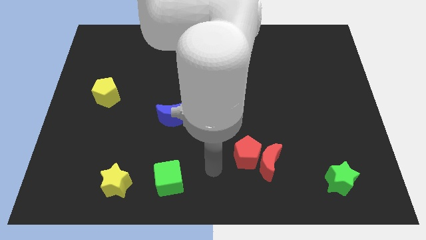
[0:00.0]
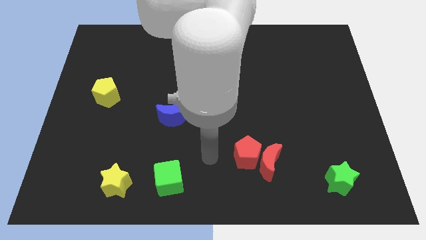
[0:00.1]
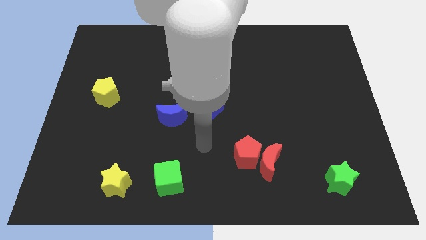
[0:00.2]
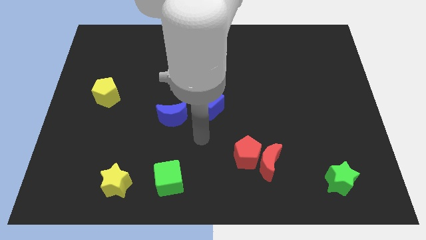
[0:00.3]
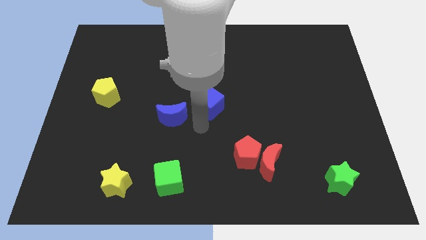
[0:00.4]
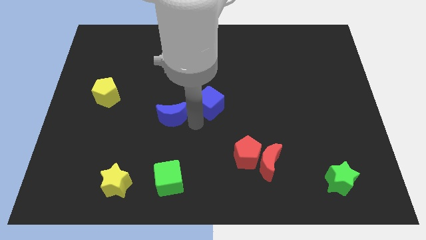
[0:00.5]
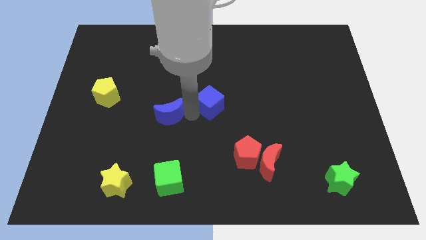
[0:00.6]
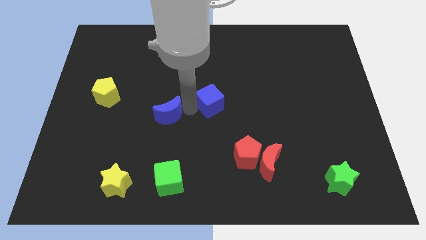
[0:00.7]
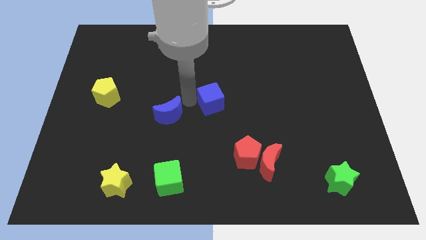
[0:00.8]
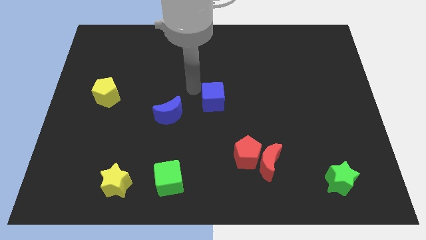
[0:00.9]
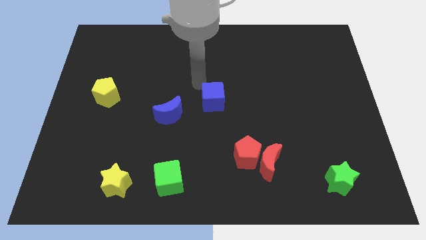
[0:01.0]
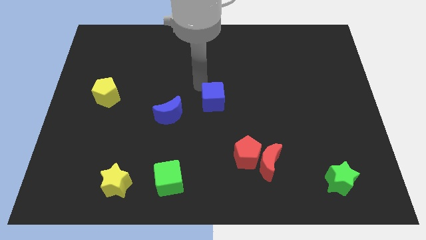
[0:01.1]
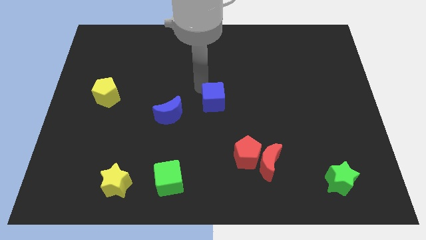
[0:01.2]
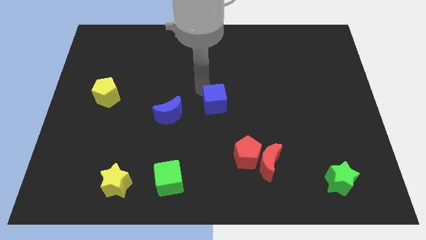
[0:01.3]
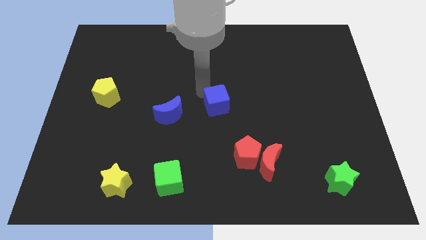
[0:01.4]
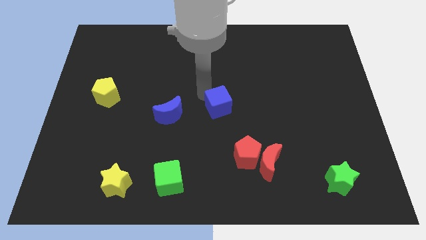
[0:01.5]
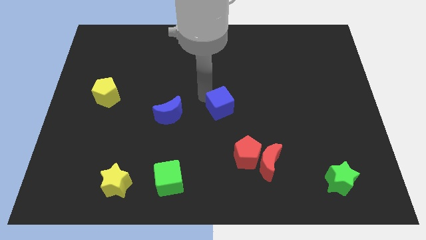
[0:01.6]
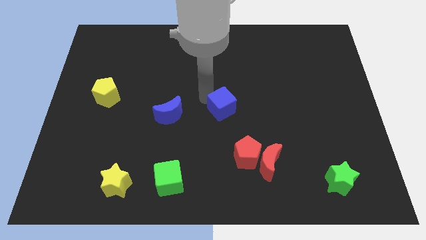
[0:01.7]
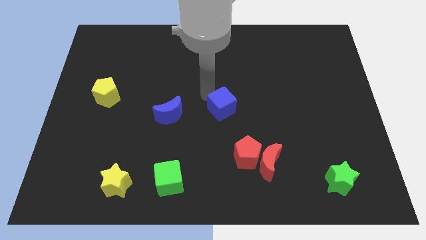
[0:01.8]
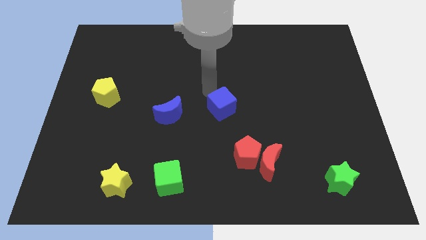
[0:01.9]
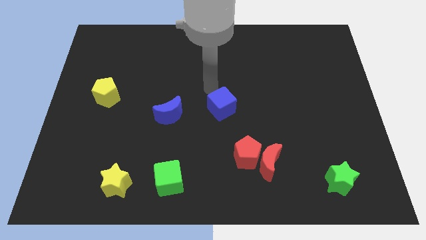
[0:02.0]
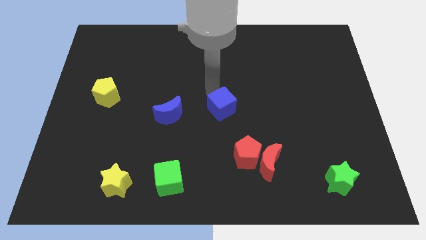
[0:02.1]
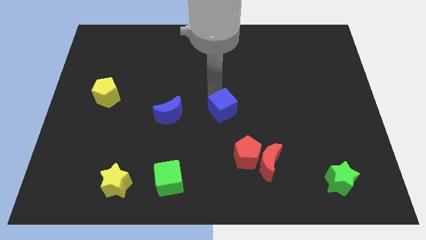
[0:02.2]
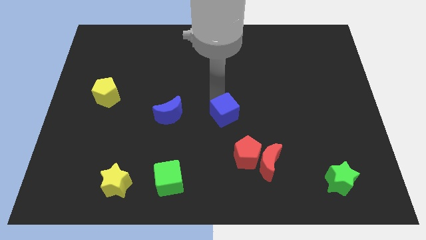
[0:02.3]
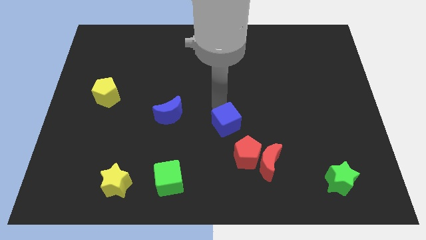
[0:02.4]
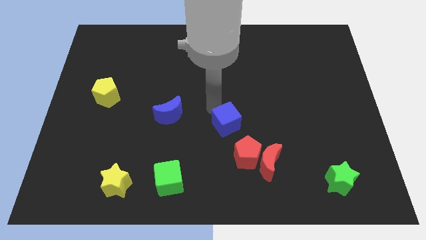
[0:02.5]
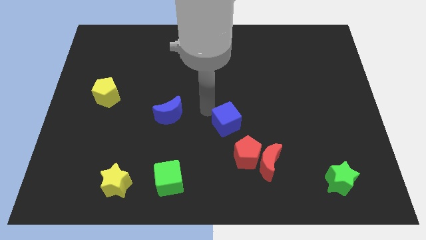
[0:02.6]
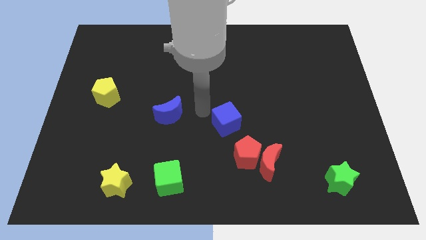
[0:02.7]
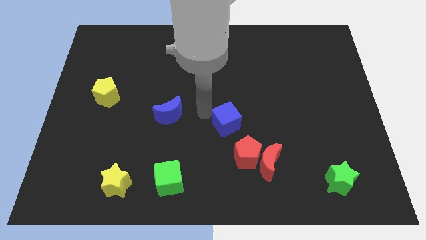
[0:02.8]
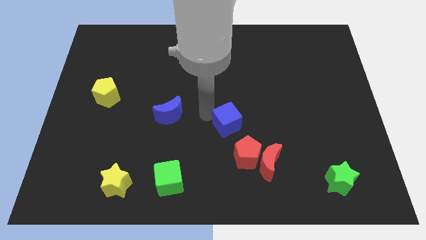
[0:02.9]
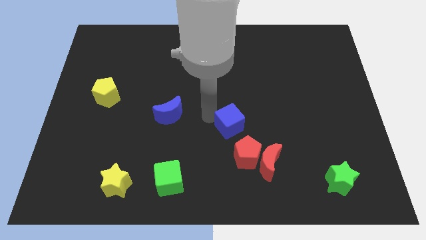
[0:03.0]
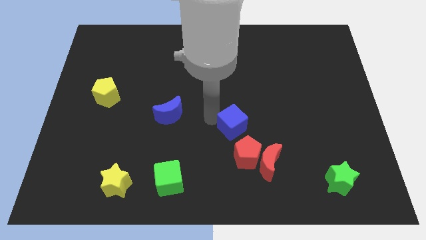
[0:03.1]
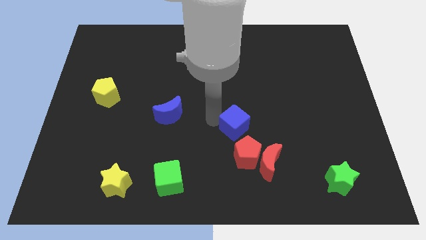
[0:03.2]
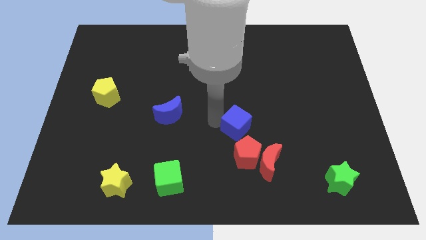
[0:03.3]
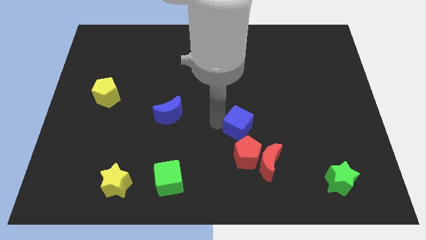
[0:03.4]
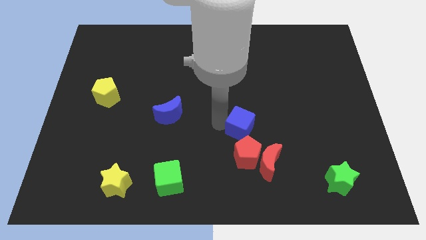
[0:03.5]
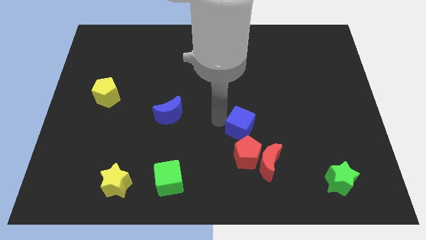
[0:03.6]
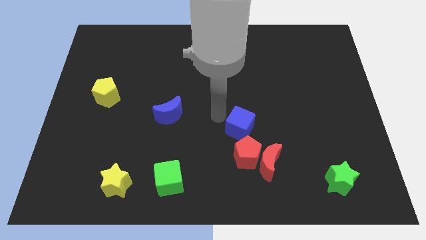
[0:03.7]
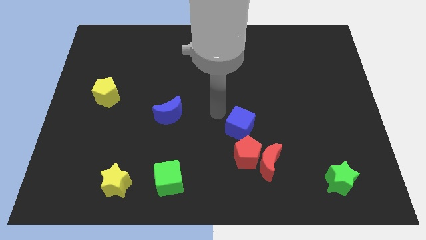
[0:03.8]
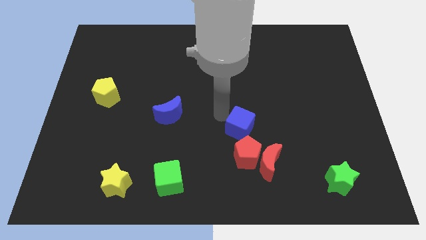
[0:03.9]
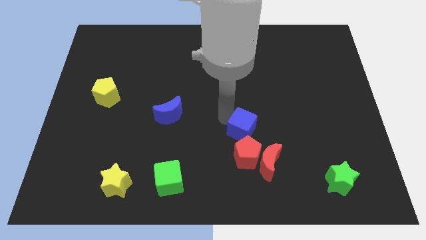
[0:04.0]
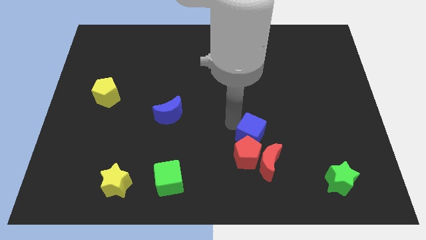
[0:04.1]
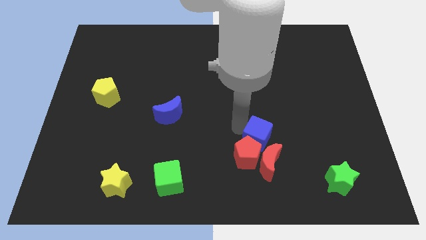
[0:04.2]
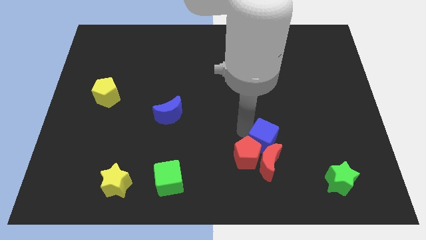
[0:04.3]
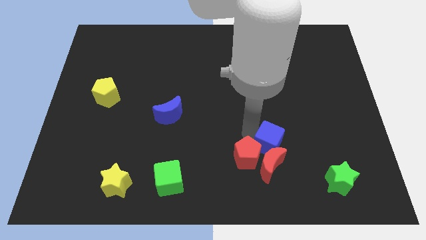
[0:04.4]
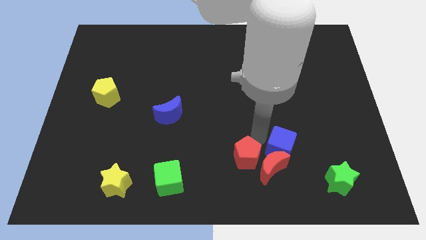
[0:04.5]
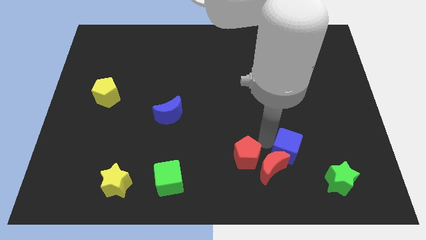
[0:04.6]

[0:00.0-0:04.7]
move the blue cube to the right of the red moon

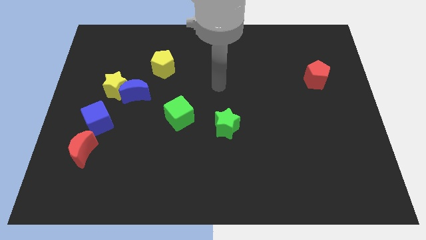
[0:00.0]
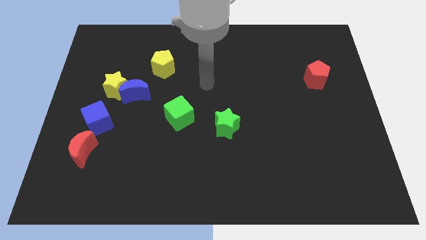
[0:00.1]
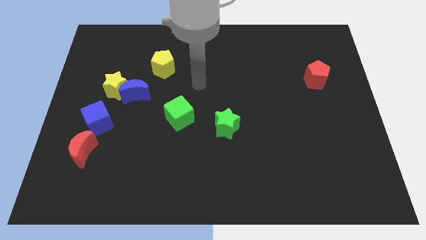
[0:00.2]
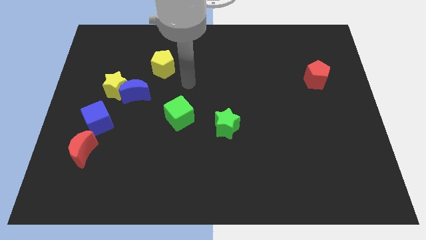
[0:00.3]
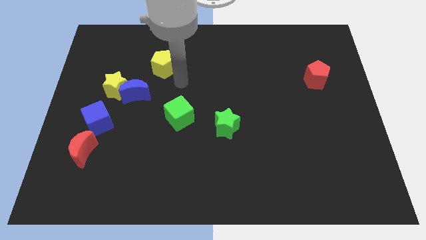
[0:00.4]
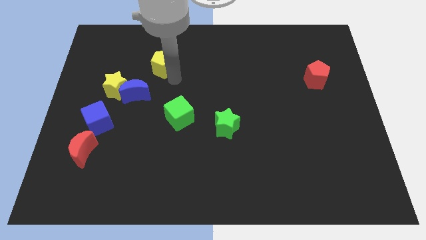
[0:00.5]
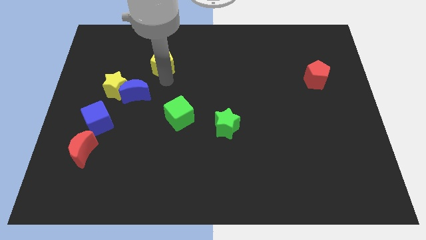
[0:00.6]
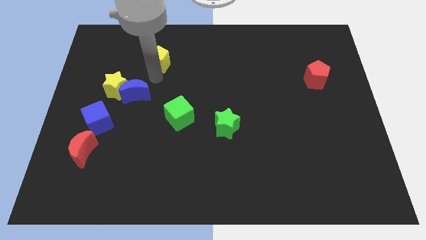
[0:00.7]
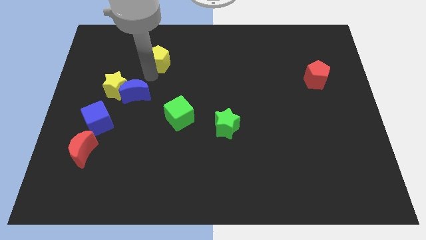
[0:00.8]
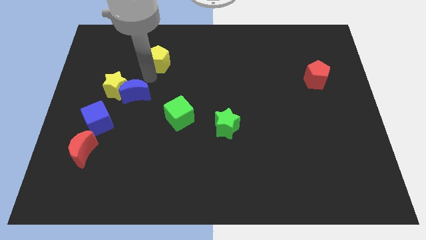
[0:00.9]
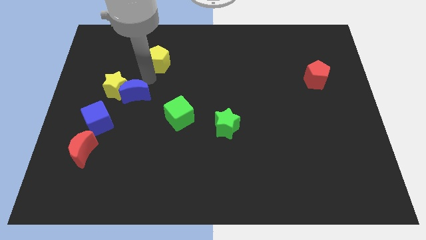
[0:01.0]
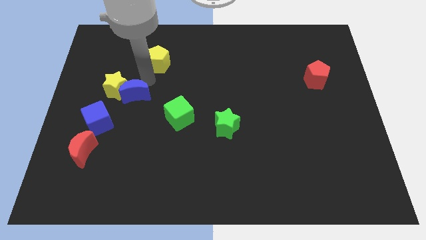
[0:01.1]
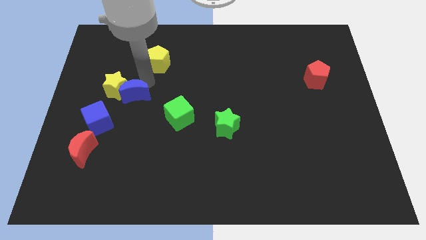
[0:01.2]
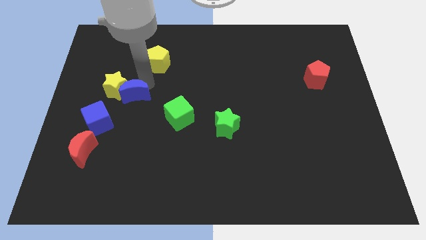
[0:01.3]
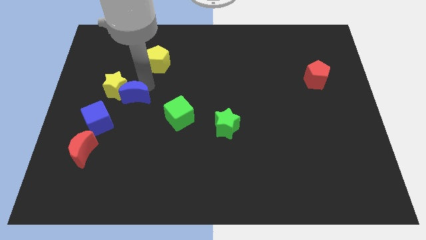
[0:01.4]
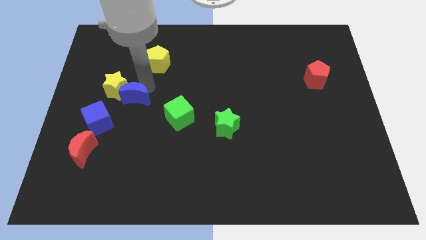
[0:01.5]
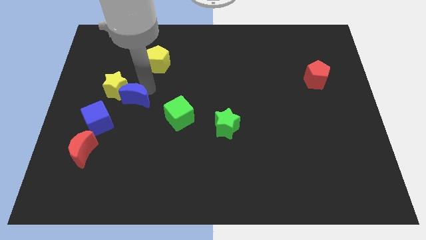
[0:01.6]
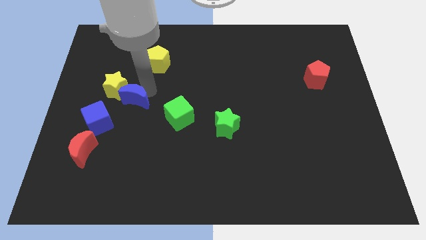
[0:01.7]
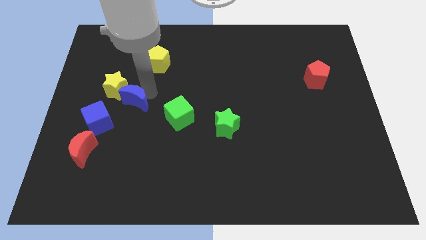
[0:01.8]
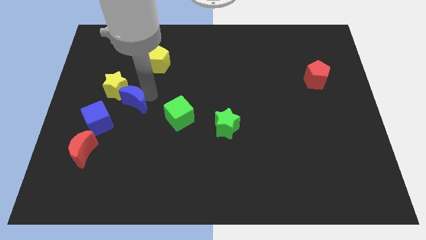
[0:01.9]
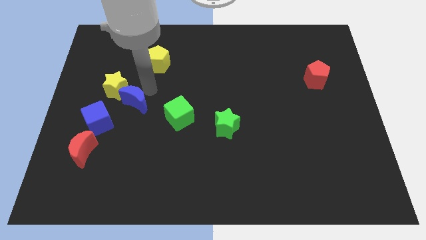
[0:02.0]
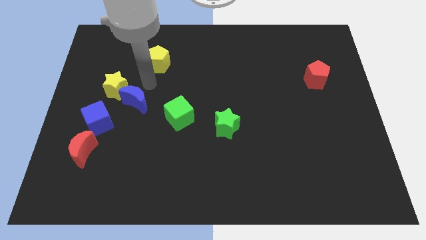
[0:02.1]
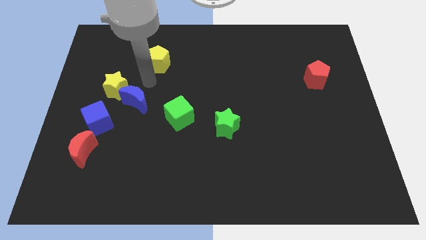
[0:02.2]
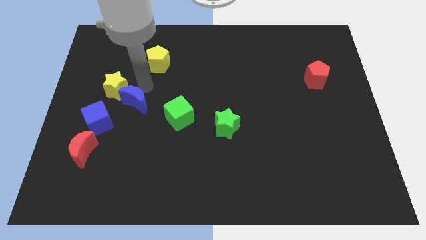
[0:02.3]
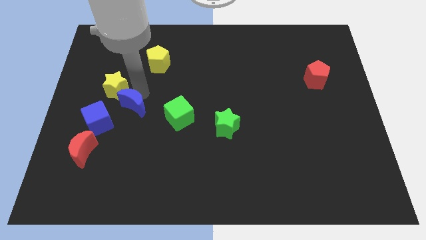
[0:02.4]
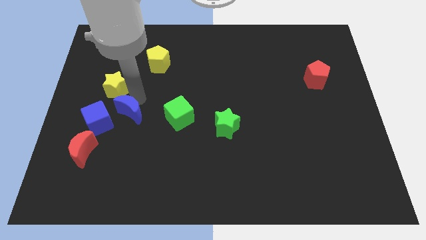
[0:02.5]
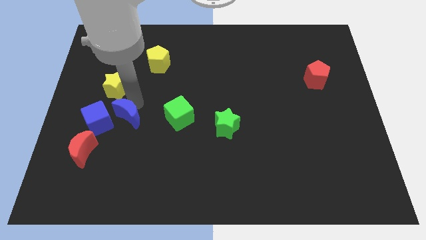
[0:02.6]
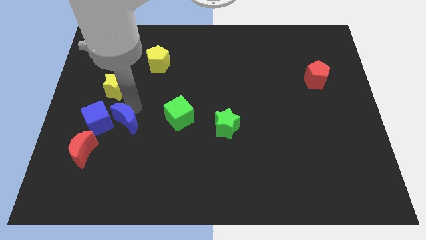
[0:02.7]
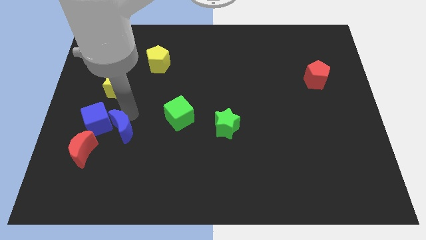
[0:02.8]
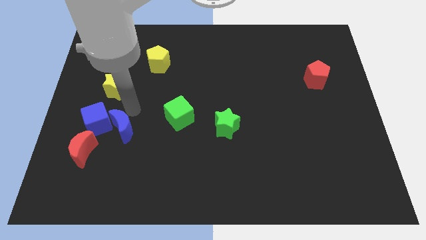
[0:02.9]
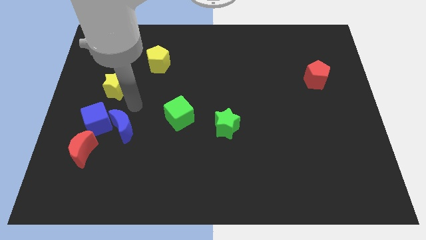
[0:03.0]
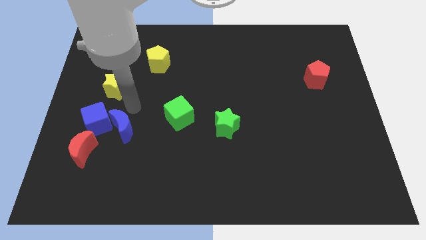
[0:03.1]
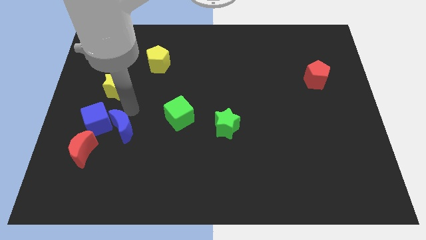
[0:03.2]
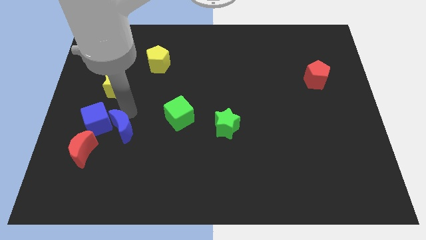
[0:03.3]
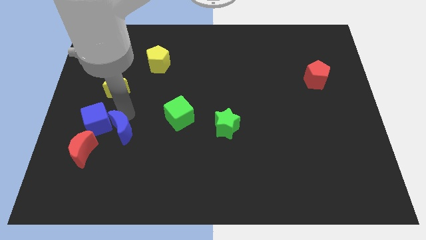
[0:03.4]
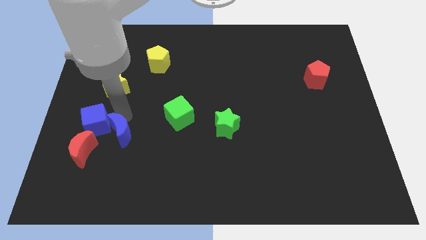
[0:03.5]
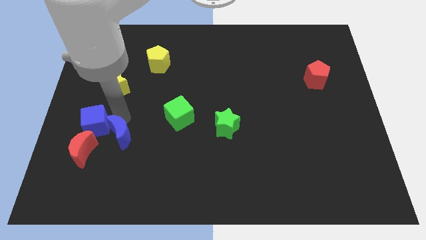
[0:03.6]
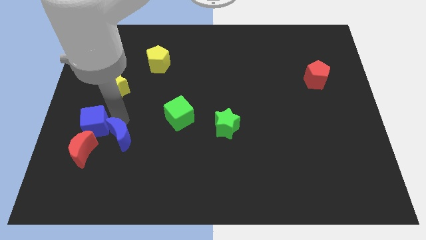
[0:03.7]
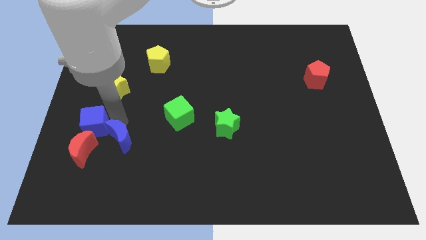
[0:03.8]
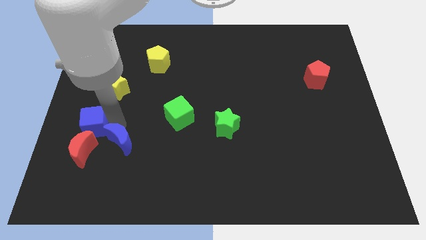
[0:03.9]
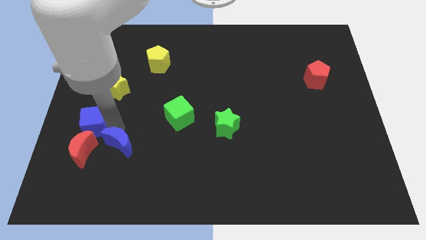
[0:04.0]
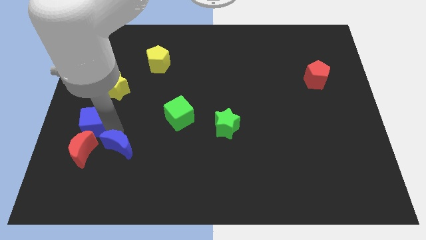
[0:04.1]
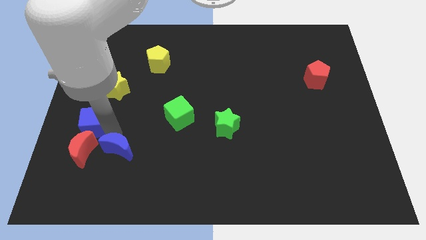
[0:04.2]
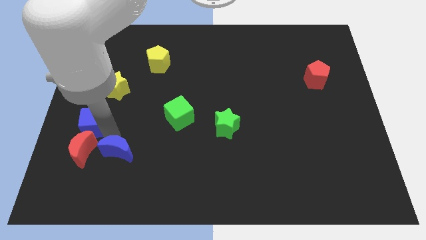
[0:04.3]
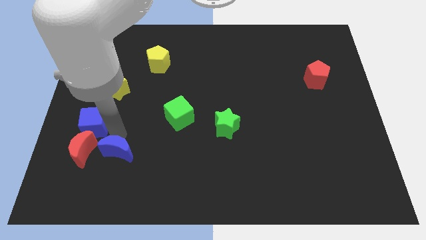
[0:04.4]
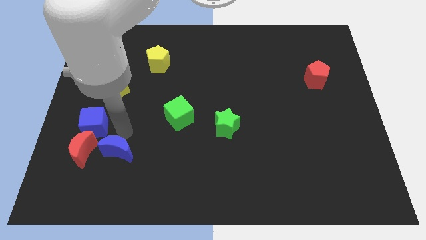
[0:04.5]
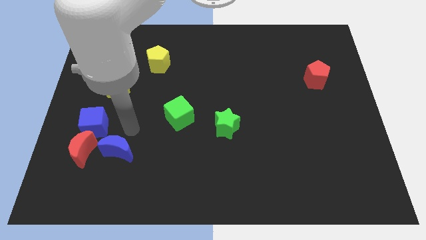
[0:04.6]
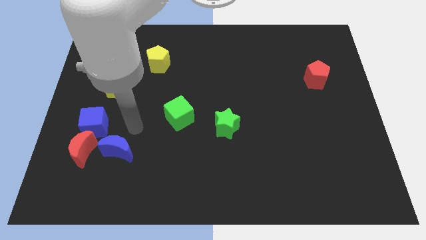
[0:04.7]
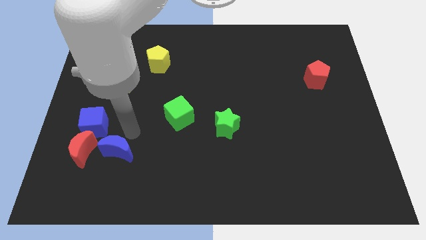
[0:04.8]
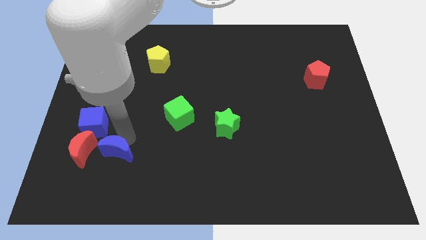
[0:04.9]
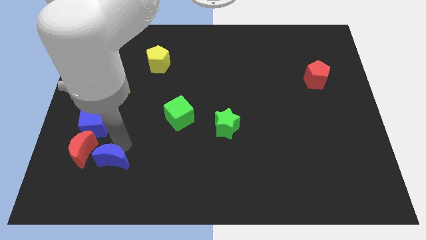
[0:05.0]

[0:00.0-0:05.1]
slide the blue moon diagonally down and to the right of the red moon
